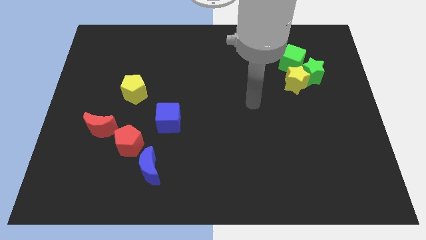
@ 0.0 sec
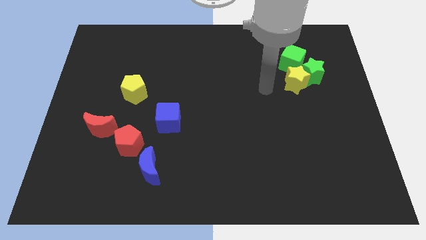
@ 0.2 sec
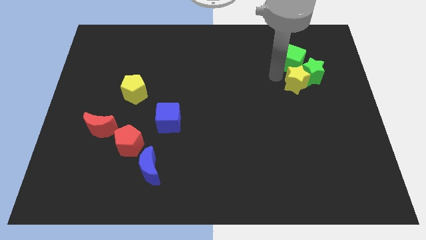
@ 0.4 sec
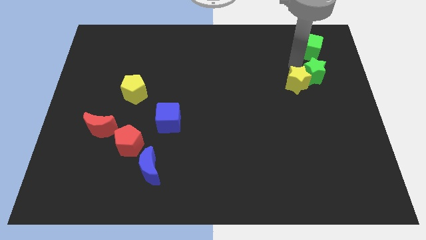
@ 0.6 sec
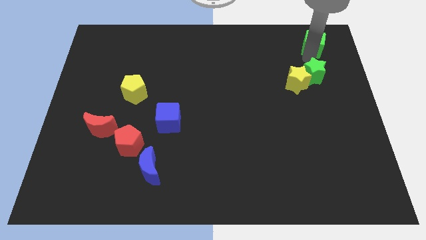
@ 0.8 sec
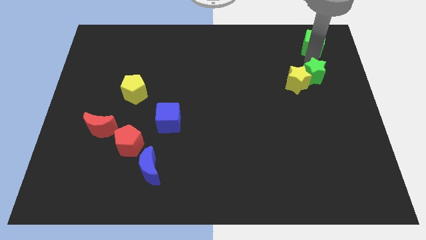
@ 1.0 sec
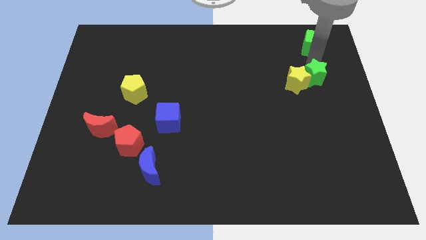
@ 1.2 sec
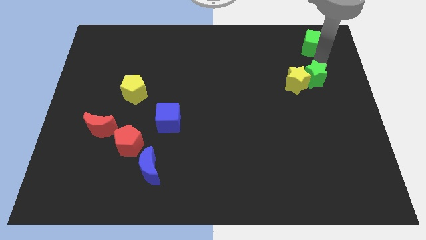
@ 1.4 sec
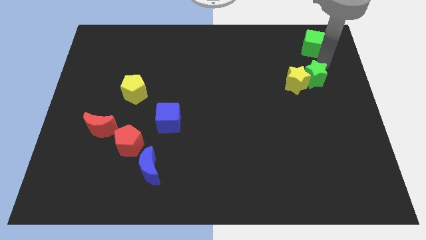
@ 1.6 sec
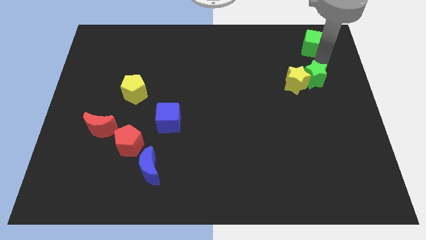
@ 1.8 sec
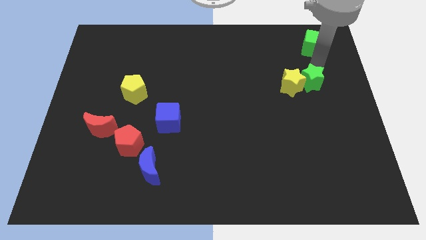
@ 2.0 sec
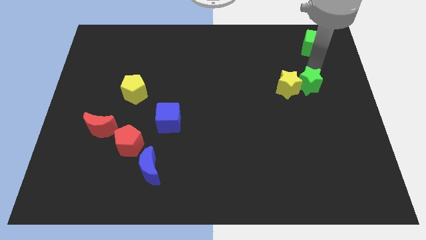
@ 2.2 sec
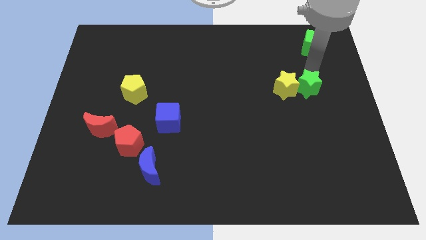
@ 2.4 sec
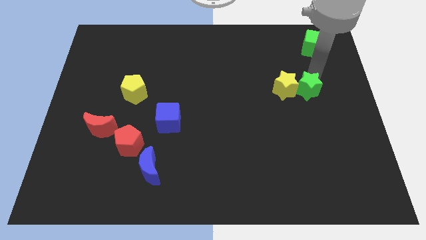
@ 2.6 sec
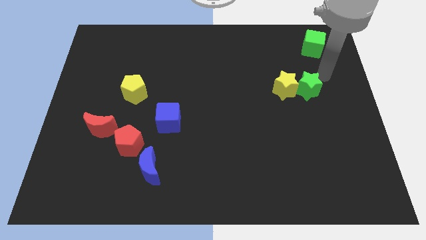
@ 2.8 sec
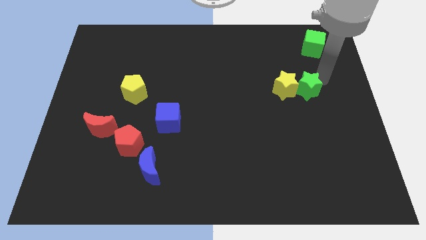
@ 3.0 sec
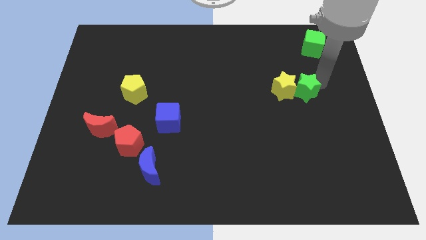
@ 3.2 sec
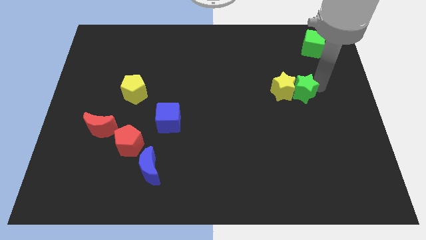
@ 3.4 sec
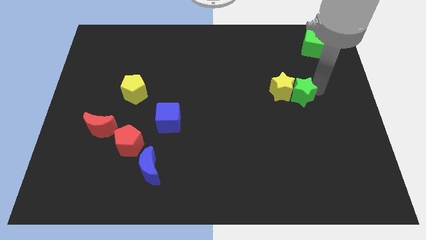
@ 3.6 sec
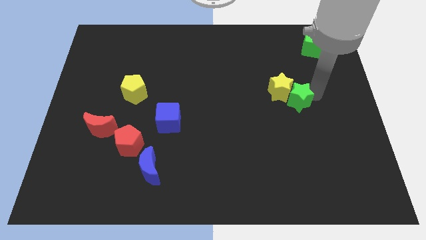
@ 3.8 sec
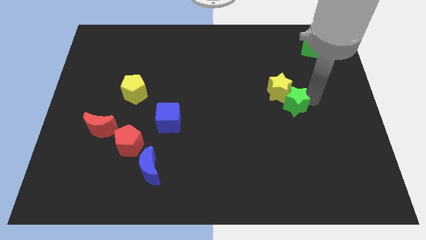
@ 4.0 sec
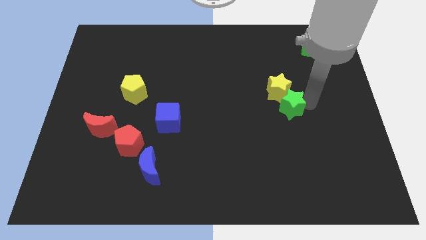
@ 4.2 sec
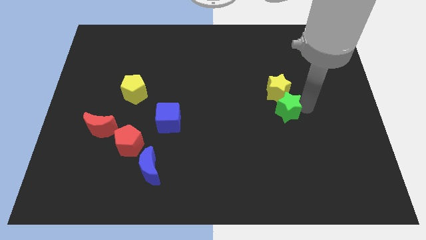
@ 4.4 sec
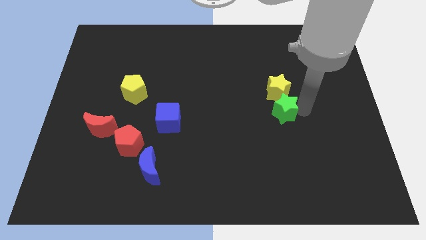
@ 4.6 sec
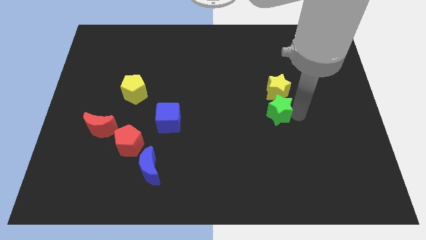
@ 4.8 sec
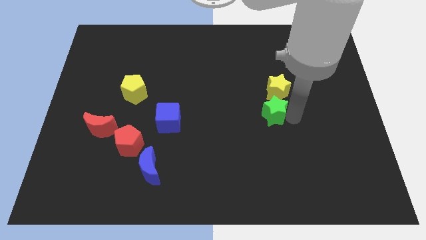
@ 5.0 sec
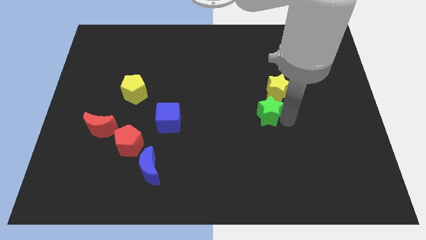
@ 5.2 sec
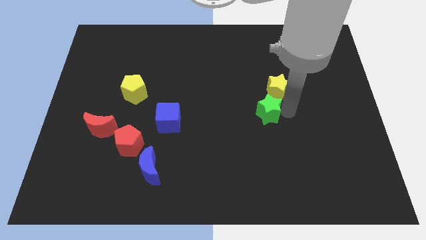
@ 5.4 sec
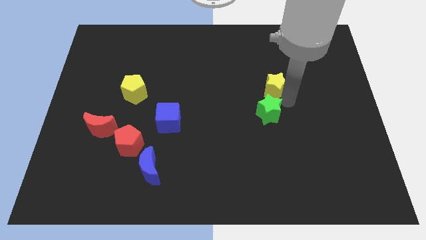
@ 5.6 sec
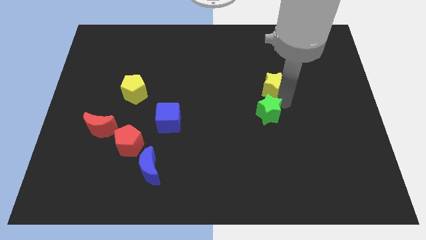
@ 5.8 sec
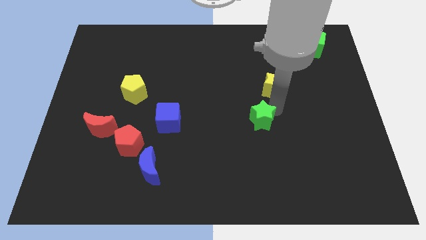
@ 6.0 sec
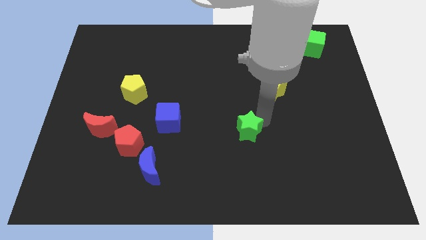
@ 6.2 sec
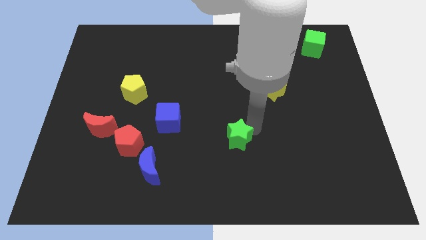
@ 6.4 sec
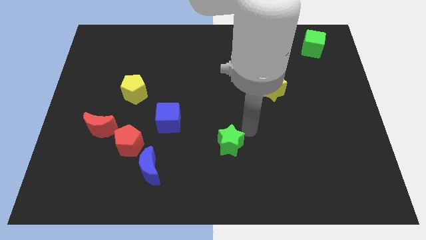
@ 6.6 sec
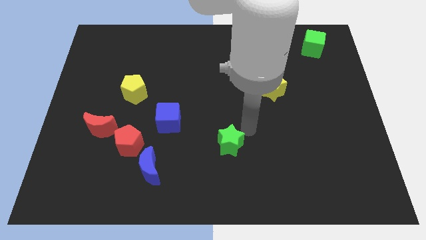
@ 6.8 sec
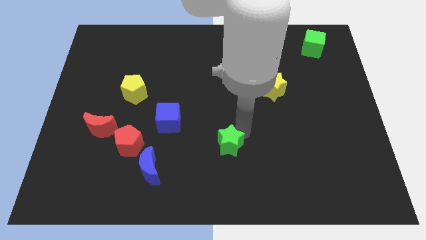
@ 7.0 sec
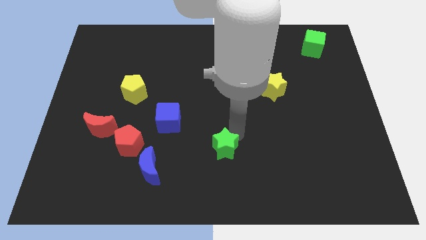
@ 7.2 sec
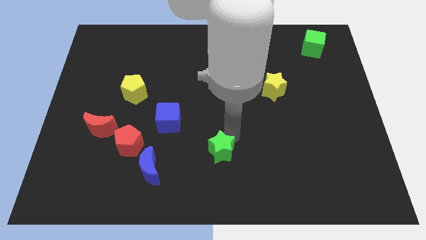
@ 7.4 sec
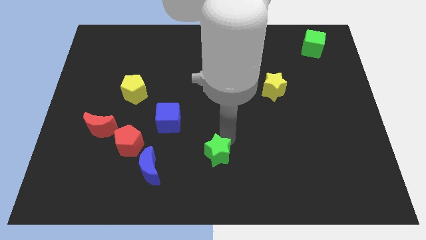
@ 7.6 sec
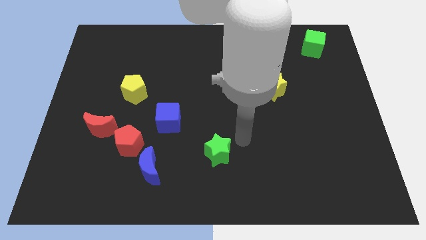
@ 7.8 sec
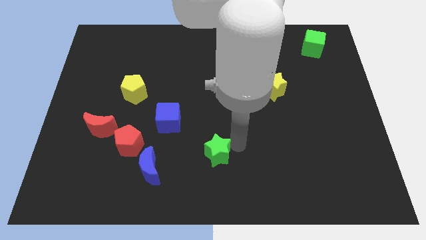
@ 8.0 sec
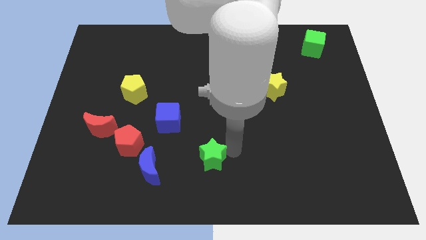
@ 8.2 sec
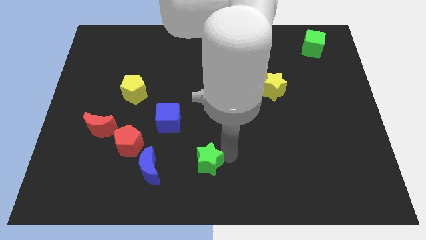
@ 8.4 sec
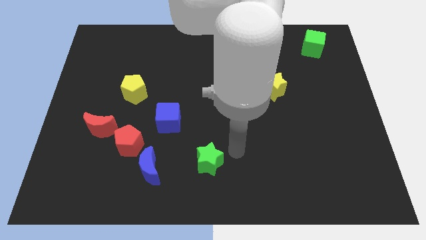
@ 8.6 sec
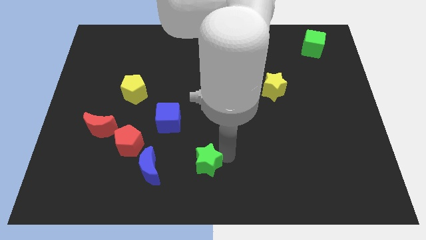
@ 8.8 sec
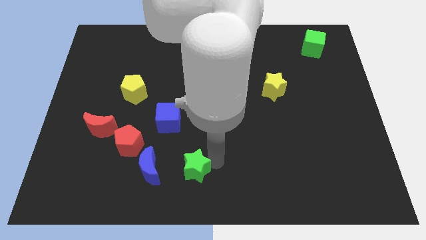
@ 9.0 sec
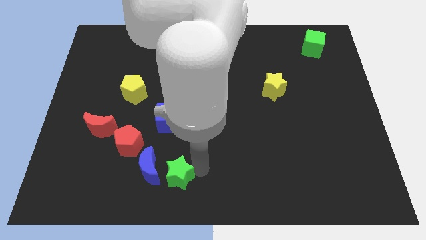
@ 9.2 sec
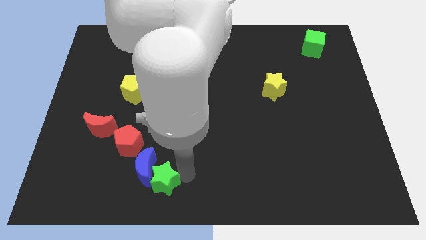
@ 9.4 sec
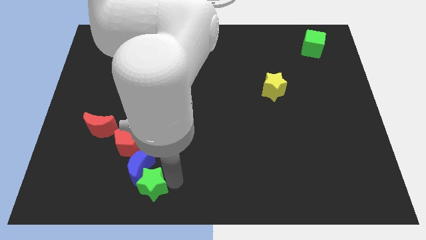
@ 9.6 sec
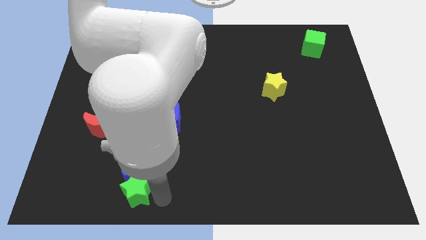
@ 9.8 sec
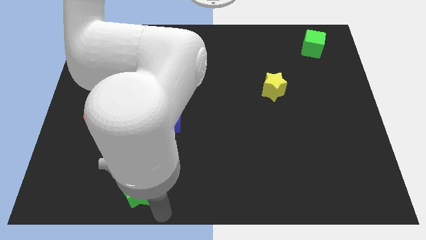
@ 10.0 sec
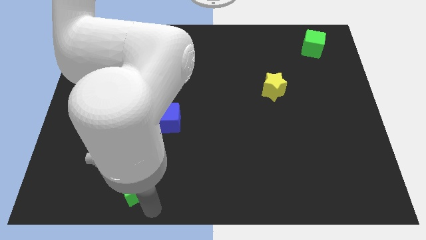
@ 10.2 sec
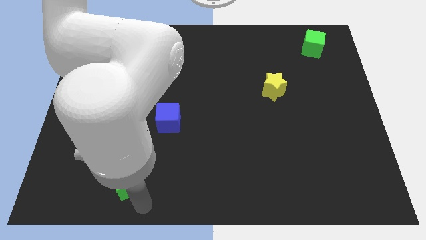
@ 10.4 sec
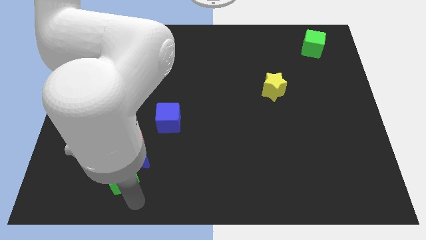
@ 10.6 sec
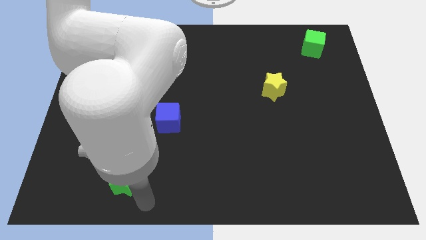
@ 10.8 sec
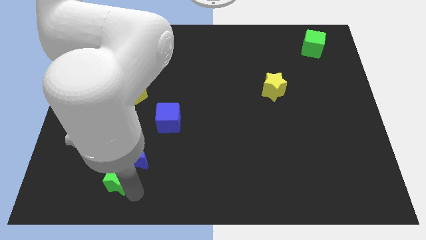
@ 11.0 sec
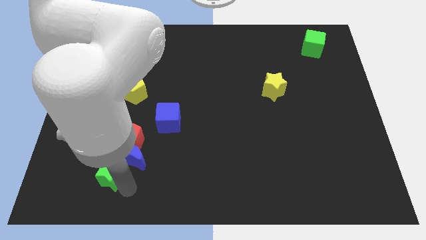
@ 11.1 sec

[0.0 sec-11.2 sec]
move the green star diagonally down and to the left of the red pentagon
